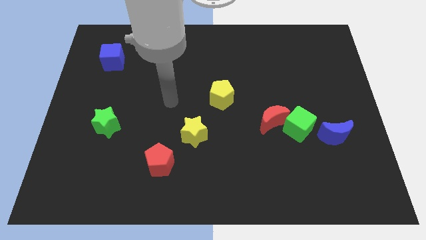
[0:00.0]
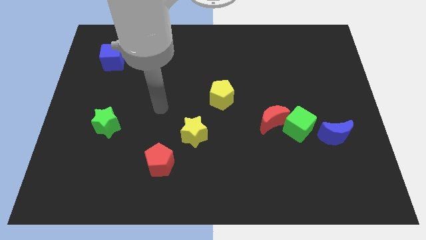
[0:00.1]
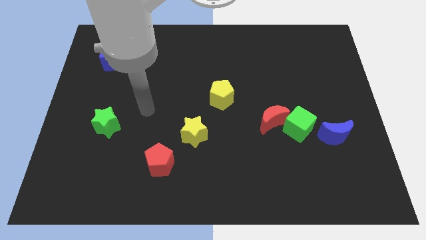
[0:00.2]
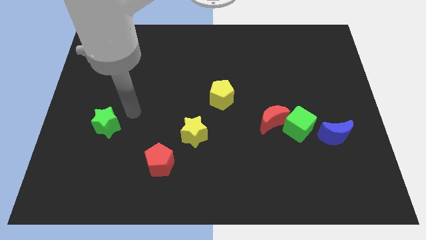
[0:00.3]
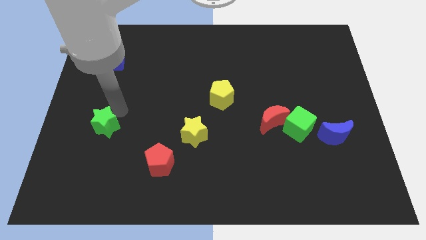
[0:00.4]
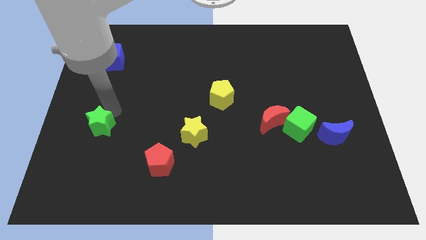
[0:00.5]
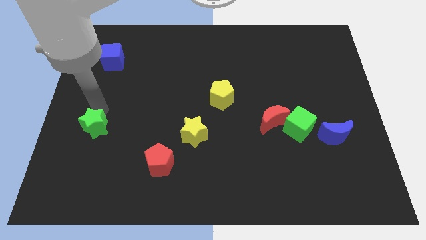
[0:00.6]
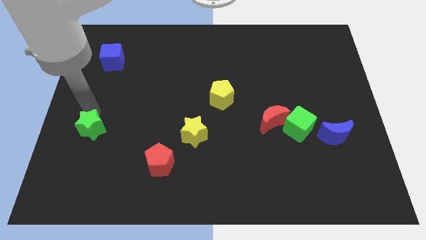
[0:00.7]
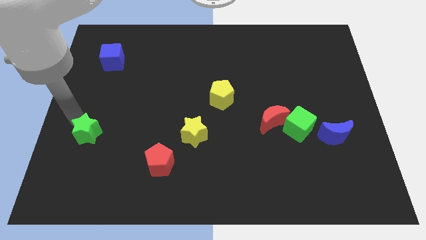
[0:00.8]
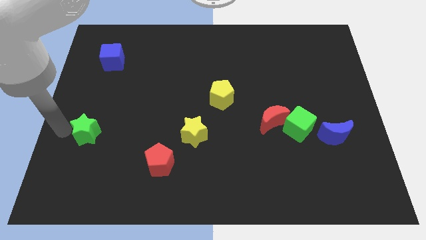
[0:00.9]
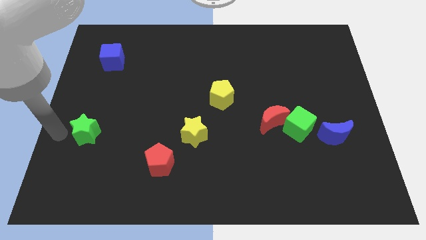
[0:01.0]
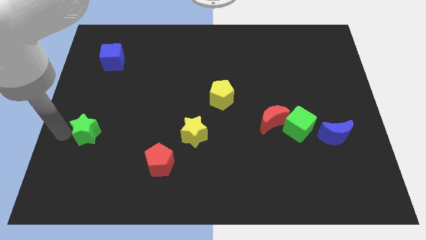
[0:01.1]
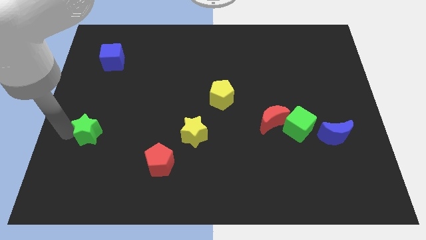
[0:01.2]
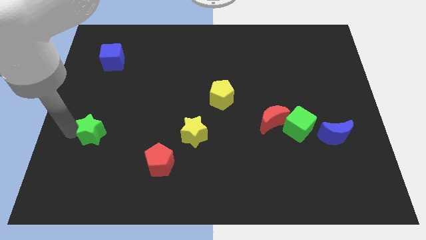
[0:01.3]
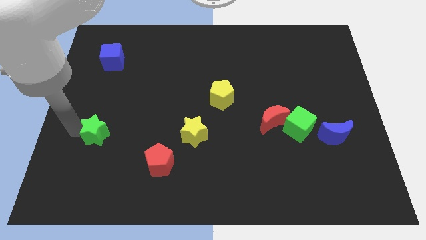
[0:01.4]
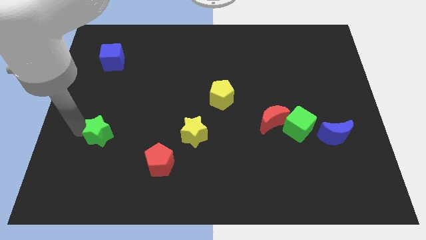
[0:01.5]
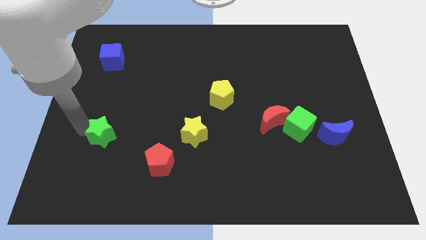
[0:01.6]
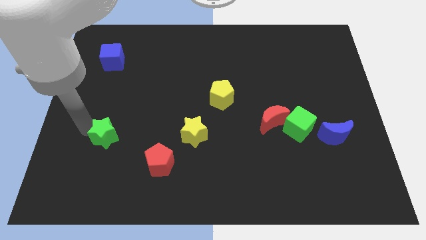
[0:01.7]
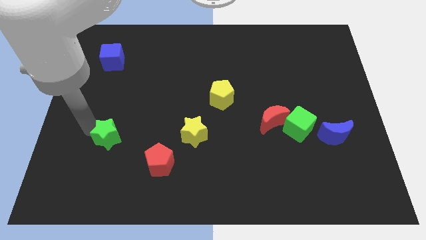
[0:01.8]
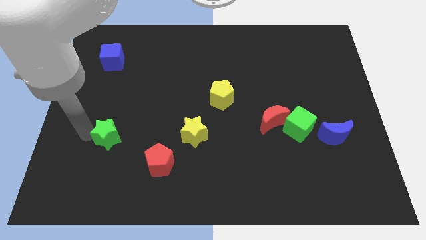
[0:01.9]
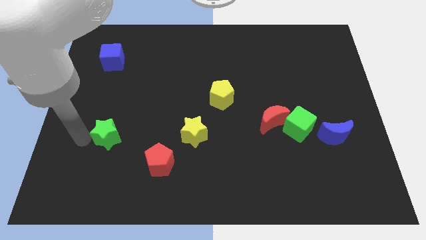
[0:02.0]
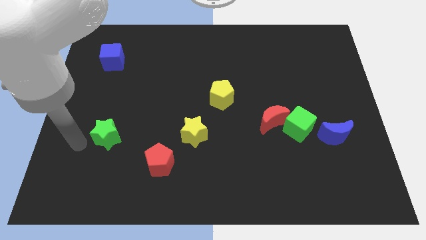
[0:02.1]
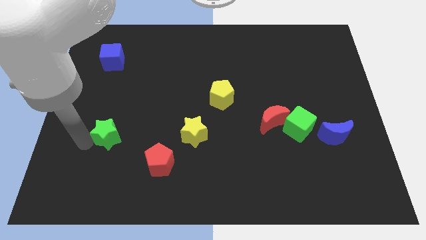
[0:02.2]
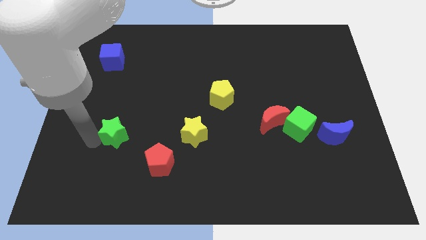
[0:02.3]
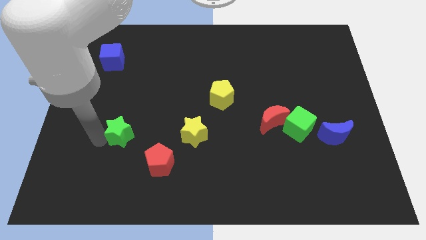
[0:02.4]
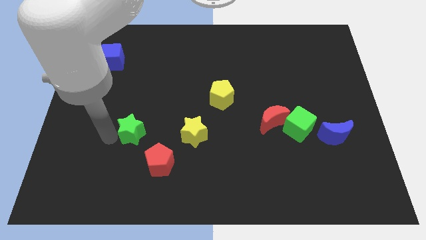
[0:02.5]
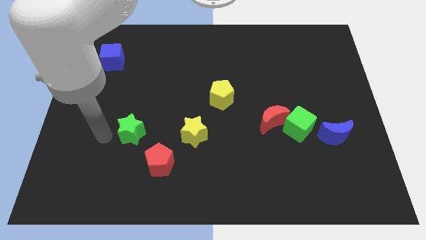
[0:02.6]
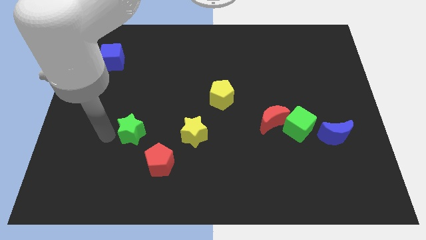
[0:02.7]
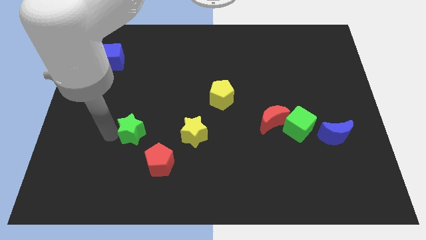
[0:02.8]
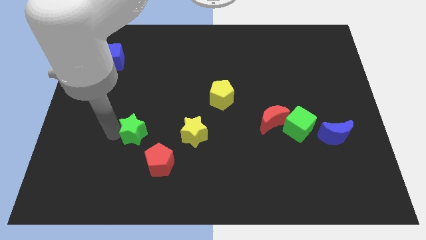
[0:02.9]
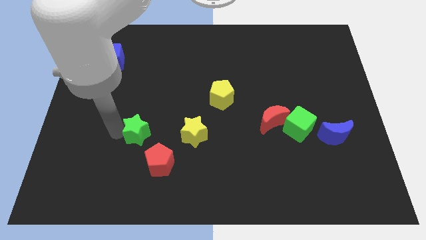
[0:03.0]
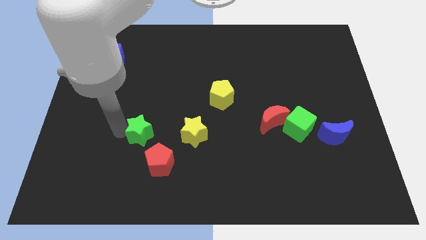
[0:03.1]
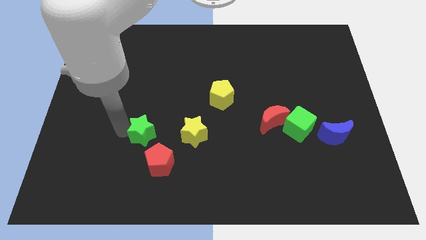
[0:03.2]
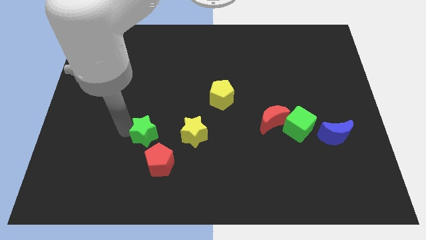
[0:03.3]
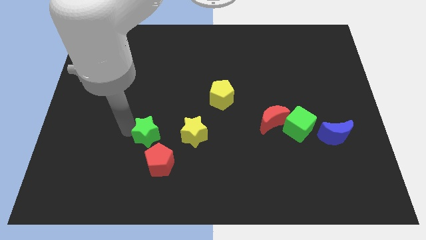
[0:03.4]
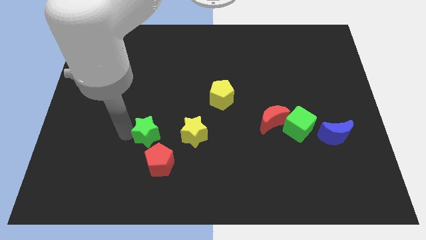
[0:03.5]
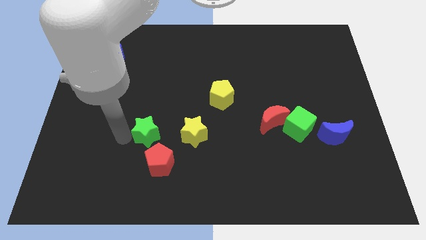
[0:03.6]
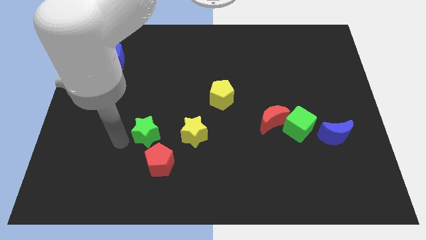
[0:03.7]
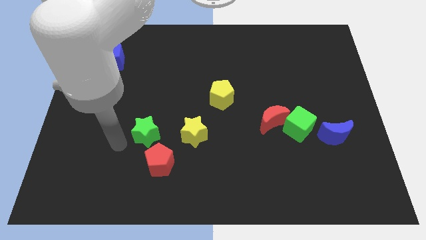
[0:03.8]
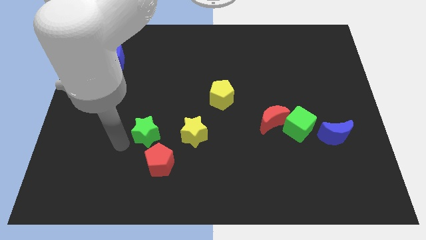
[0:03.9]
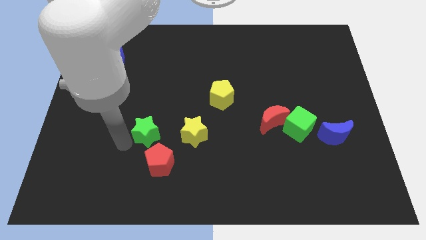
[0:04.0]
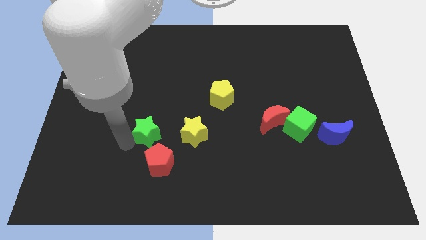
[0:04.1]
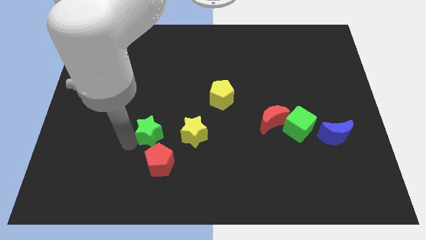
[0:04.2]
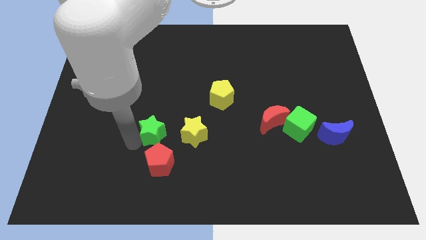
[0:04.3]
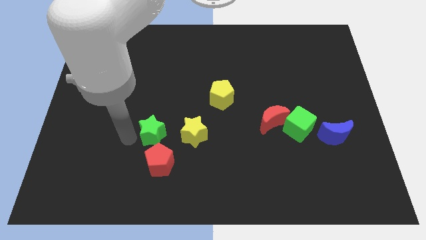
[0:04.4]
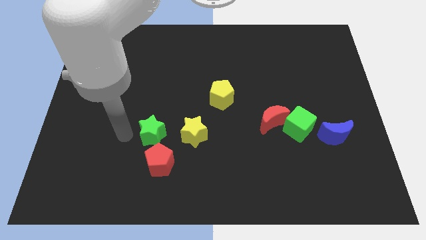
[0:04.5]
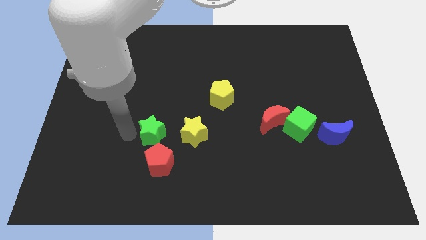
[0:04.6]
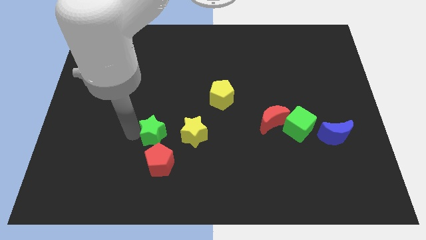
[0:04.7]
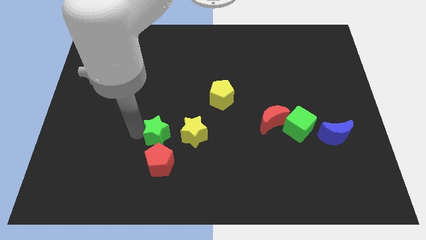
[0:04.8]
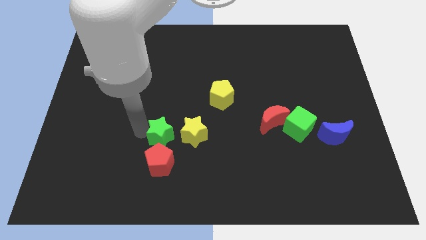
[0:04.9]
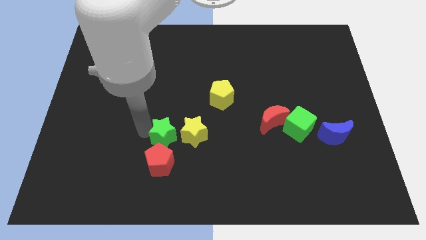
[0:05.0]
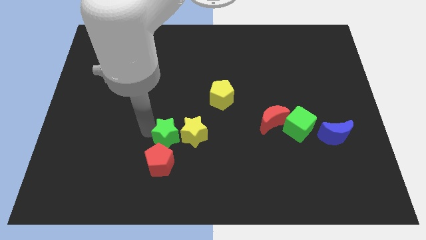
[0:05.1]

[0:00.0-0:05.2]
put the green star next to the yellow star

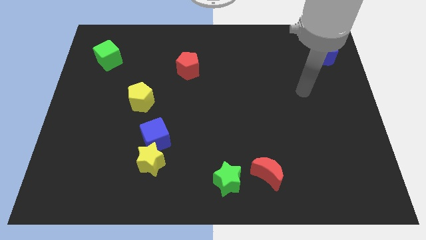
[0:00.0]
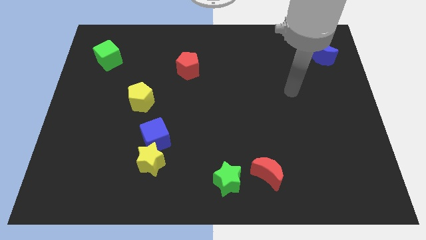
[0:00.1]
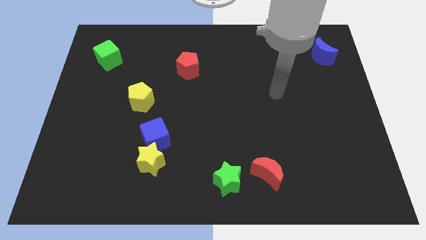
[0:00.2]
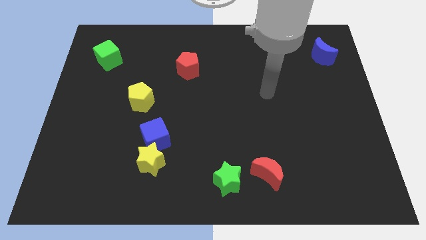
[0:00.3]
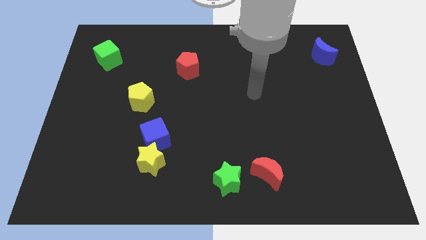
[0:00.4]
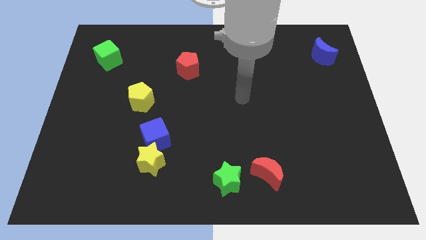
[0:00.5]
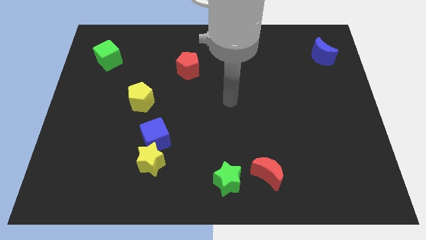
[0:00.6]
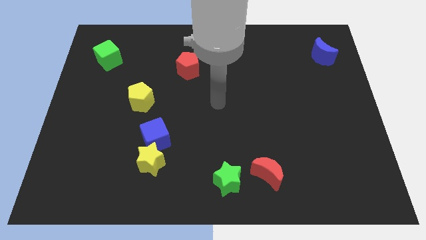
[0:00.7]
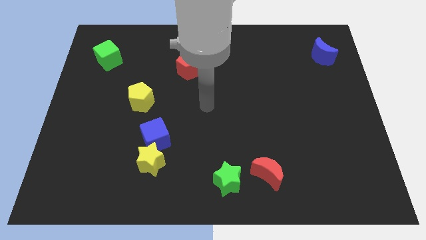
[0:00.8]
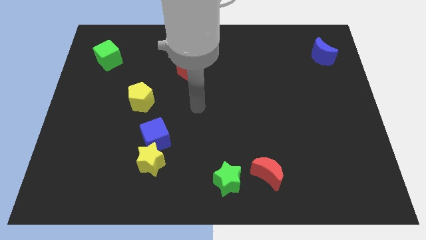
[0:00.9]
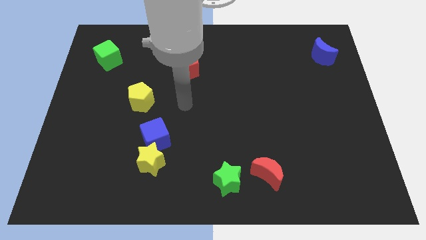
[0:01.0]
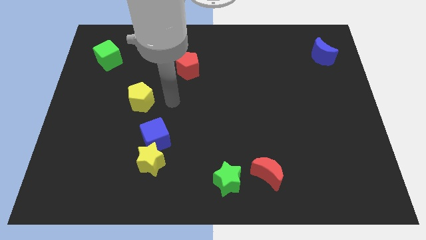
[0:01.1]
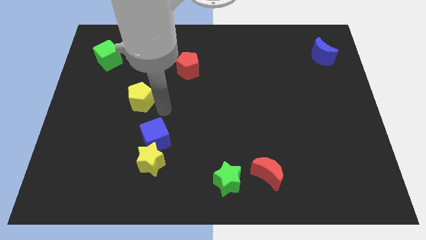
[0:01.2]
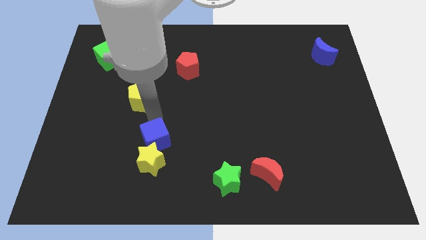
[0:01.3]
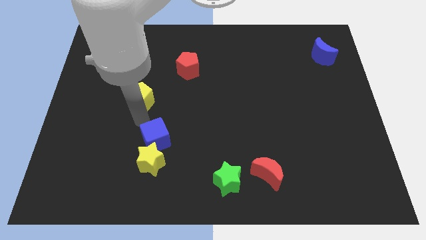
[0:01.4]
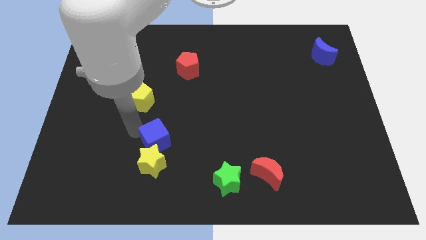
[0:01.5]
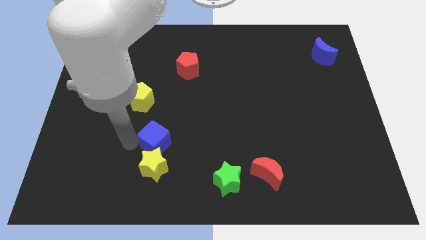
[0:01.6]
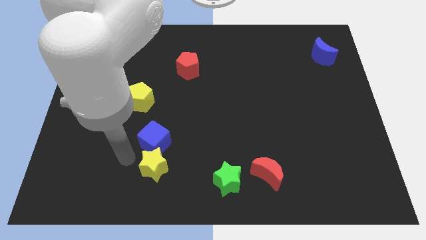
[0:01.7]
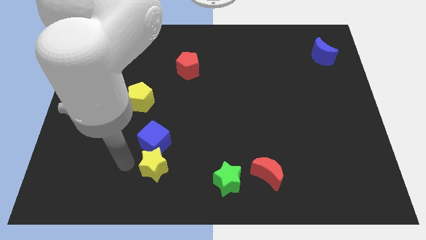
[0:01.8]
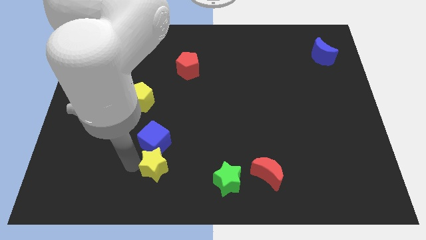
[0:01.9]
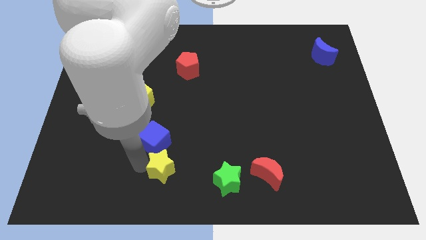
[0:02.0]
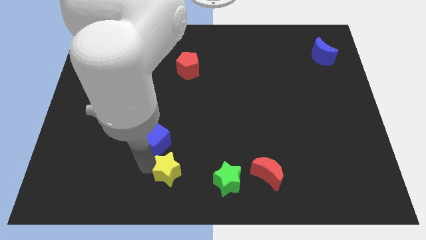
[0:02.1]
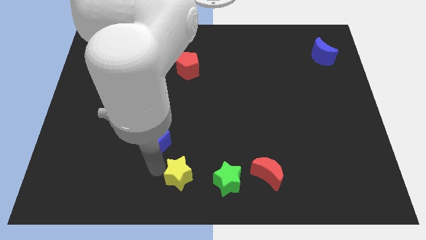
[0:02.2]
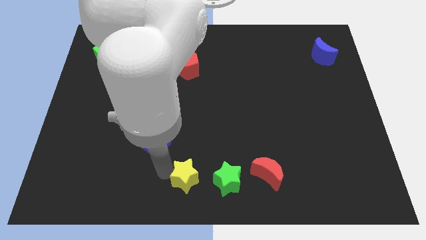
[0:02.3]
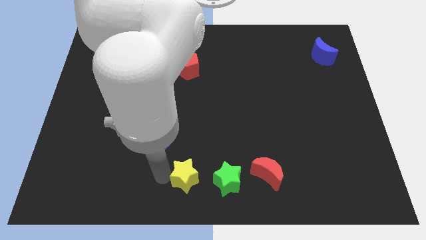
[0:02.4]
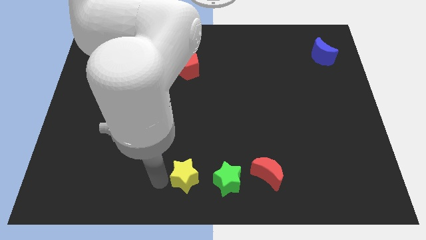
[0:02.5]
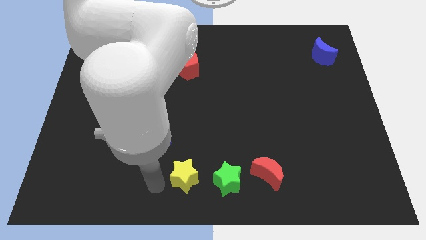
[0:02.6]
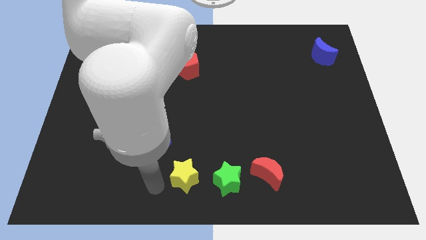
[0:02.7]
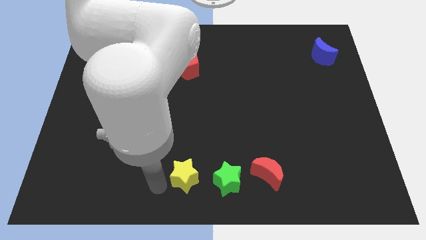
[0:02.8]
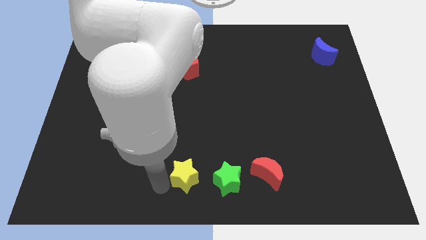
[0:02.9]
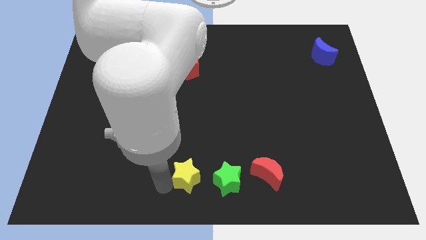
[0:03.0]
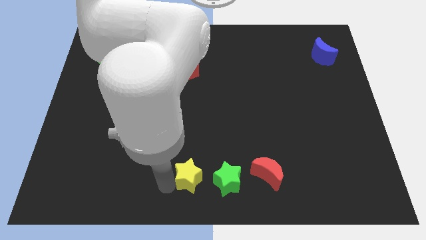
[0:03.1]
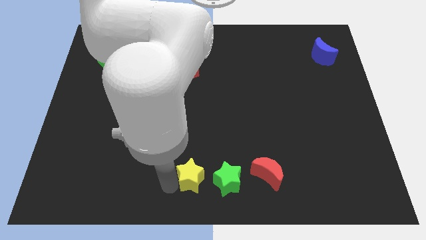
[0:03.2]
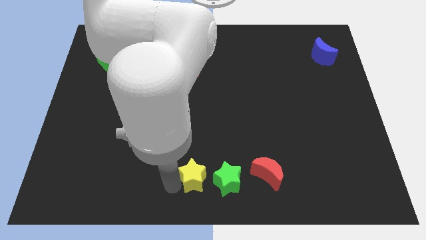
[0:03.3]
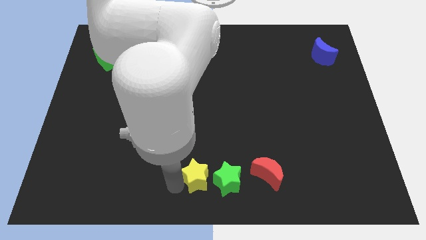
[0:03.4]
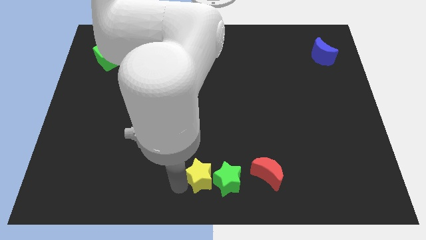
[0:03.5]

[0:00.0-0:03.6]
move the yellow star to the green star
